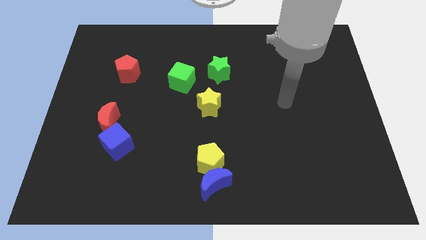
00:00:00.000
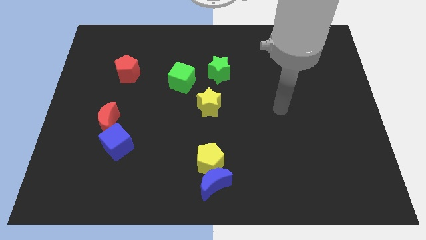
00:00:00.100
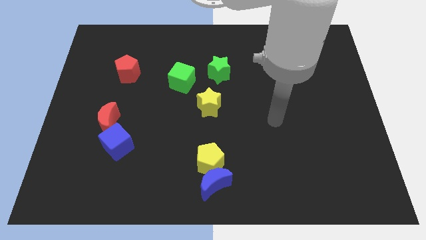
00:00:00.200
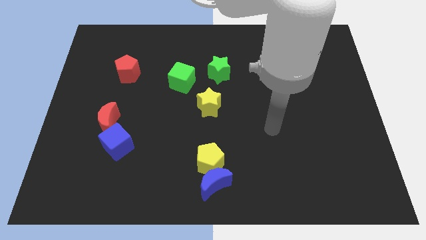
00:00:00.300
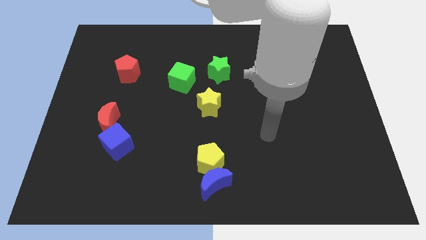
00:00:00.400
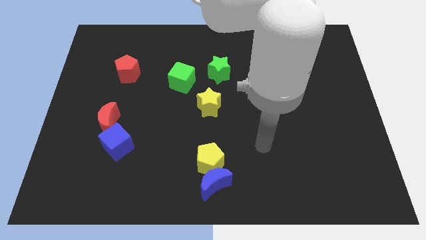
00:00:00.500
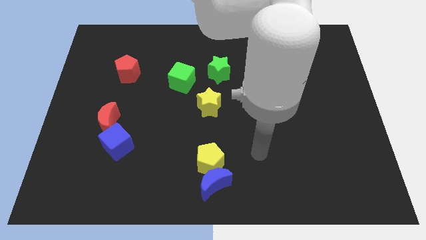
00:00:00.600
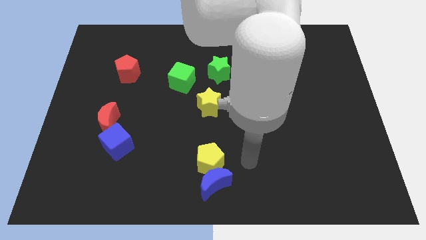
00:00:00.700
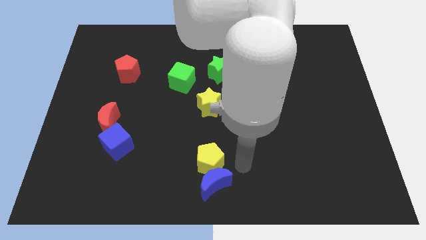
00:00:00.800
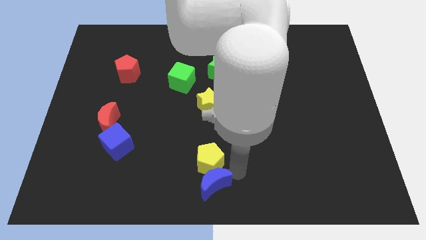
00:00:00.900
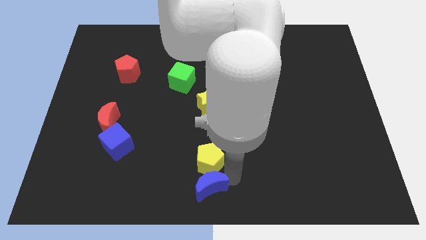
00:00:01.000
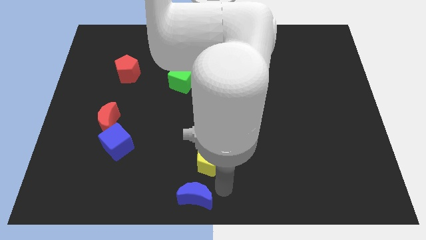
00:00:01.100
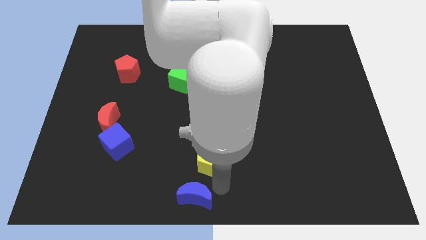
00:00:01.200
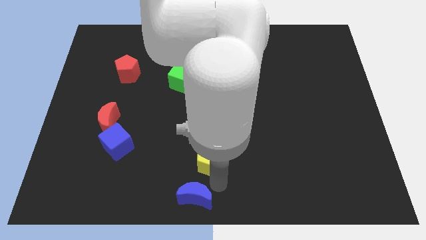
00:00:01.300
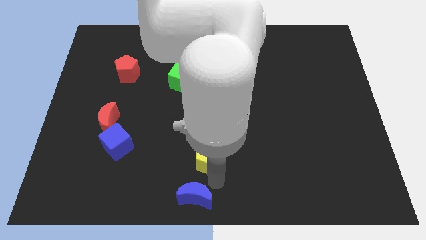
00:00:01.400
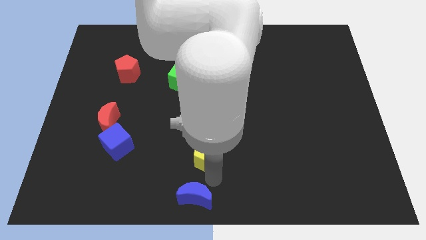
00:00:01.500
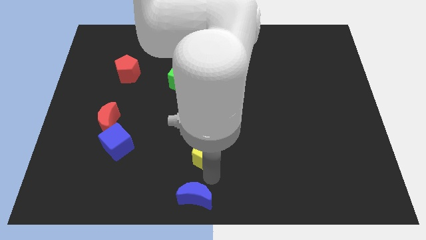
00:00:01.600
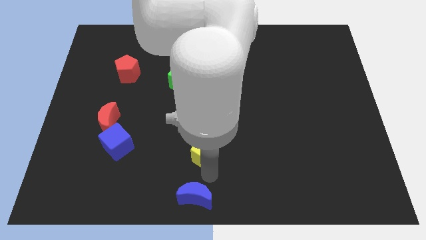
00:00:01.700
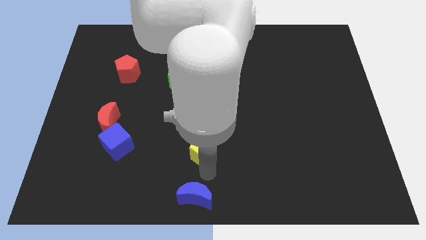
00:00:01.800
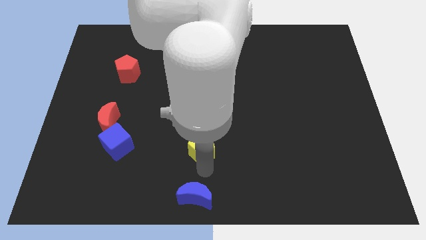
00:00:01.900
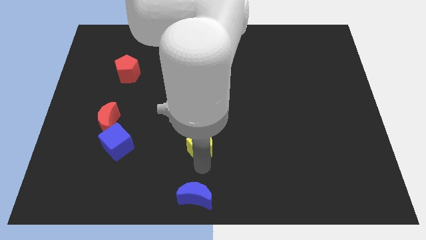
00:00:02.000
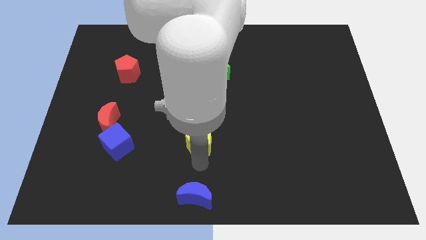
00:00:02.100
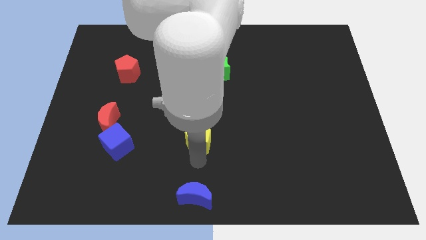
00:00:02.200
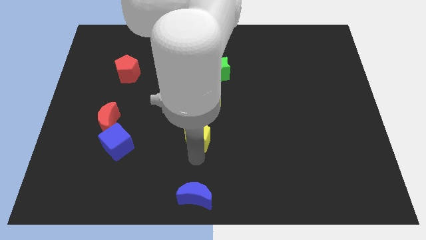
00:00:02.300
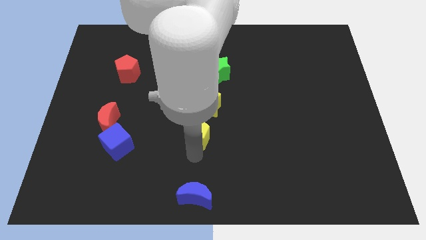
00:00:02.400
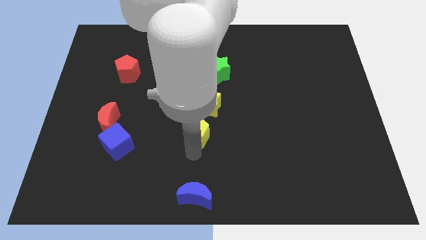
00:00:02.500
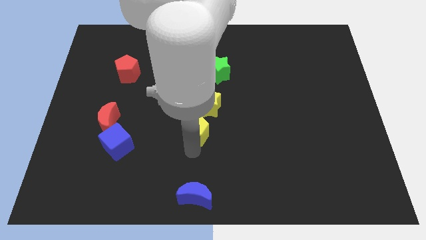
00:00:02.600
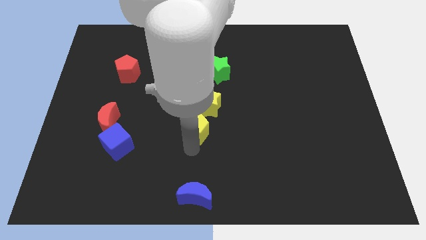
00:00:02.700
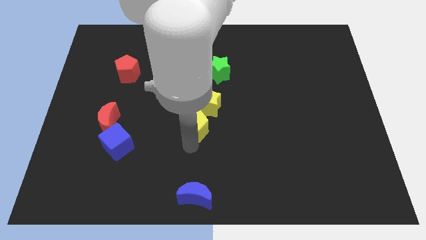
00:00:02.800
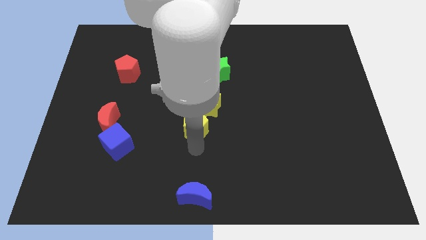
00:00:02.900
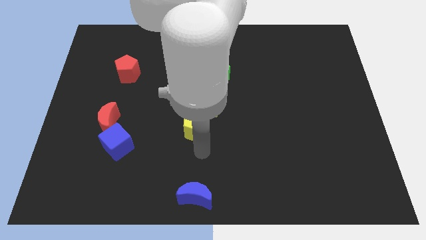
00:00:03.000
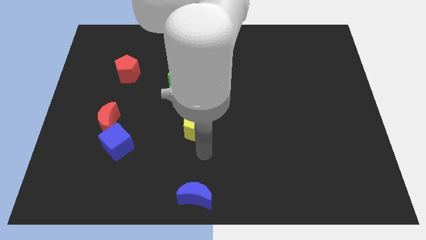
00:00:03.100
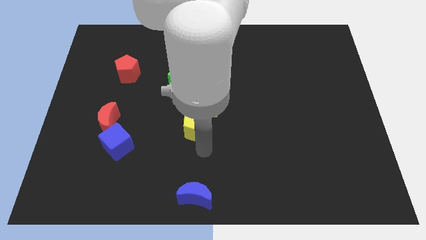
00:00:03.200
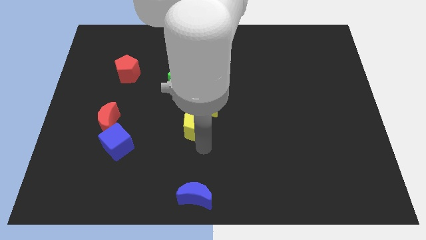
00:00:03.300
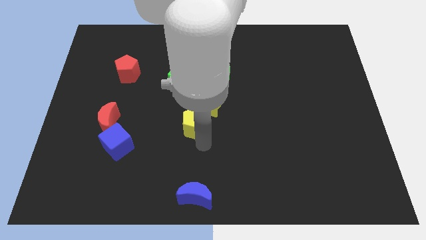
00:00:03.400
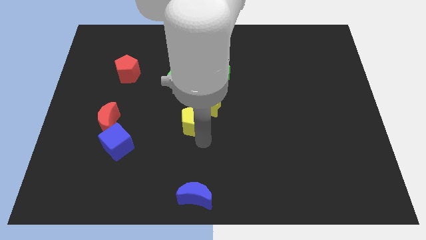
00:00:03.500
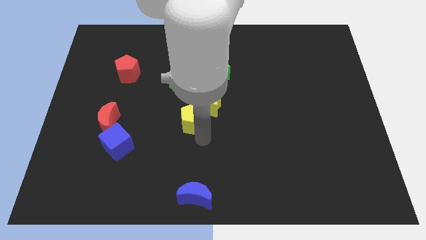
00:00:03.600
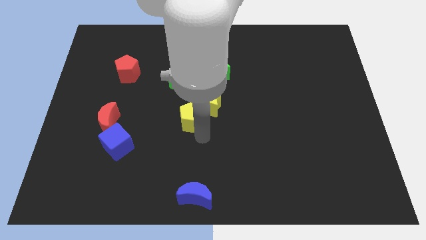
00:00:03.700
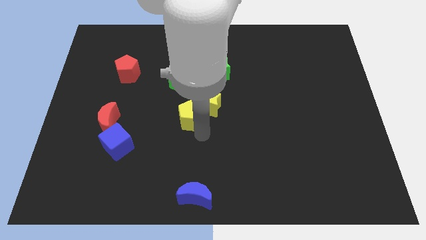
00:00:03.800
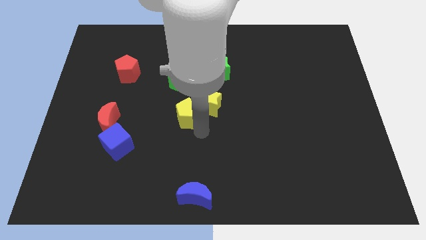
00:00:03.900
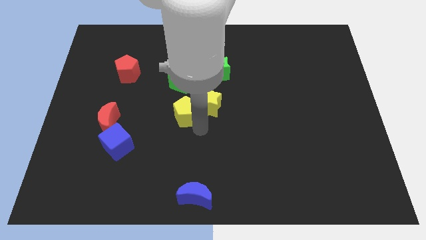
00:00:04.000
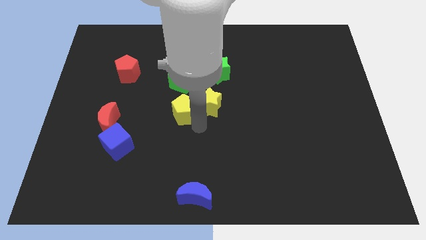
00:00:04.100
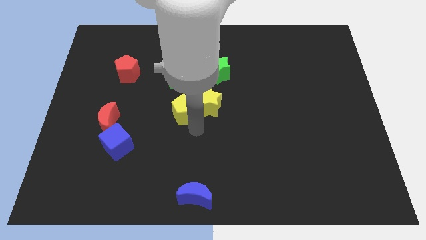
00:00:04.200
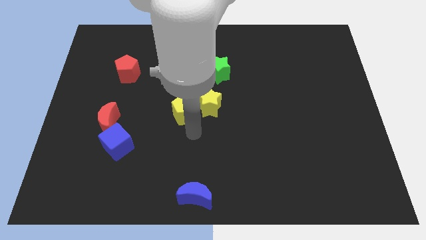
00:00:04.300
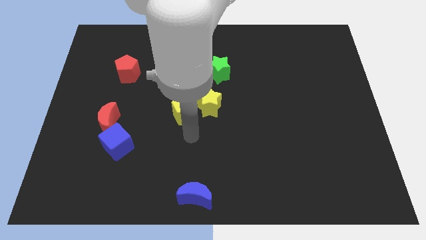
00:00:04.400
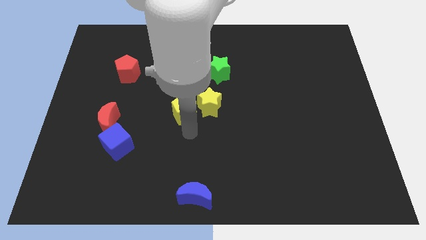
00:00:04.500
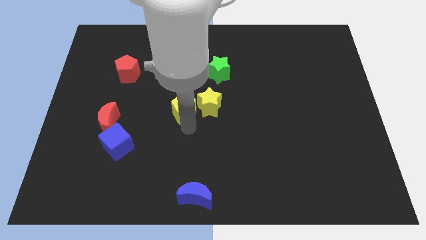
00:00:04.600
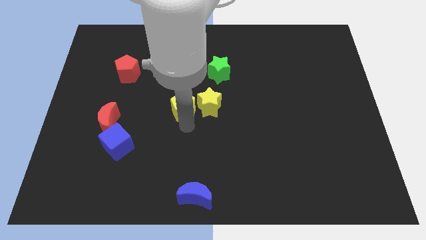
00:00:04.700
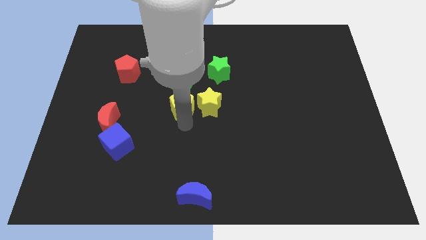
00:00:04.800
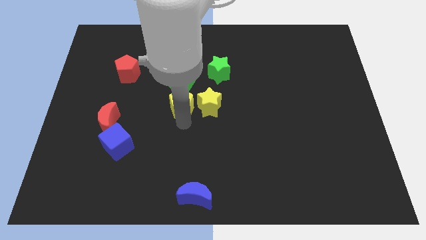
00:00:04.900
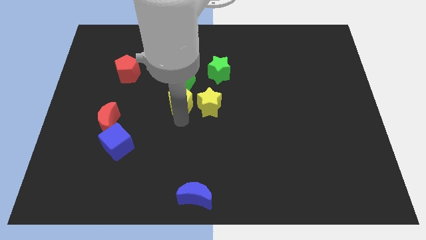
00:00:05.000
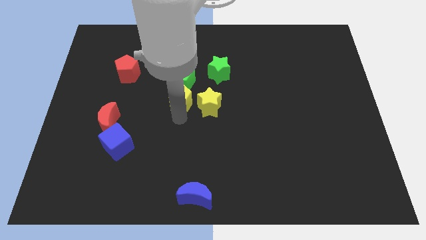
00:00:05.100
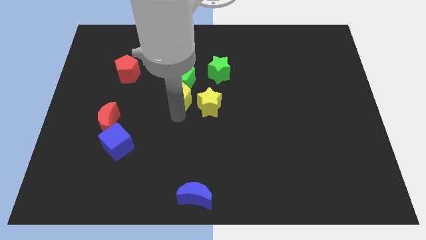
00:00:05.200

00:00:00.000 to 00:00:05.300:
push the yellow pentagon towards the green cube

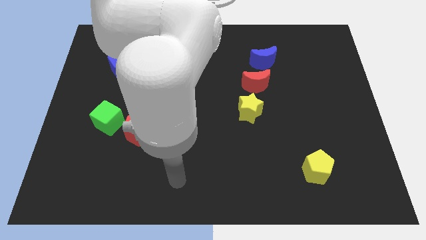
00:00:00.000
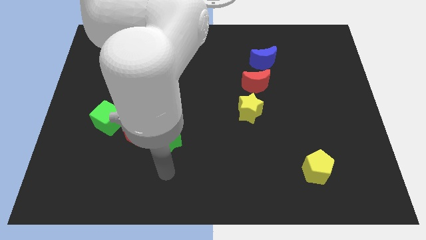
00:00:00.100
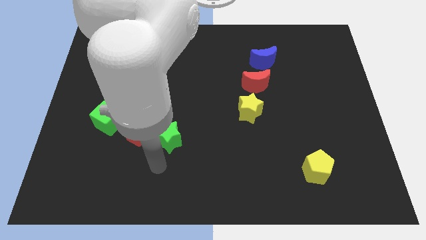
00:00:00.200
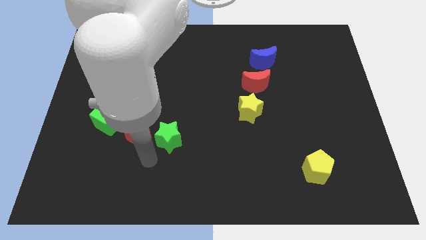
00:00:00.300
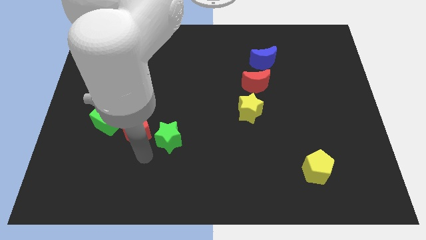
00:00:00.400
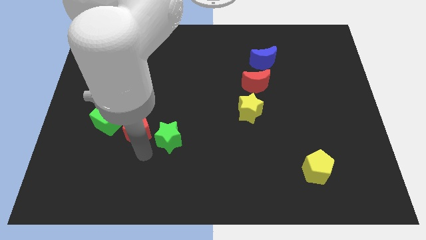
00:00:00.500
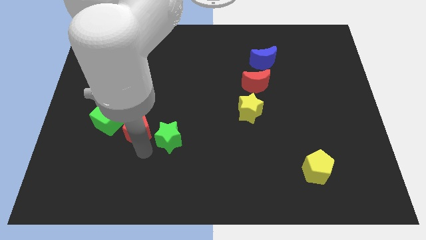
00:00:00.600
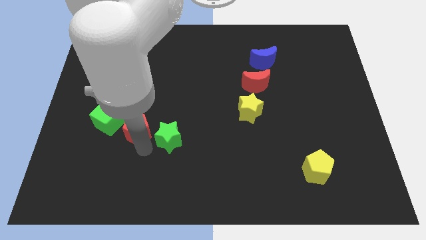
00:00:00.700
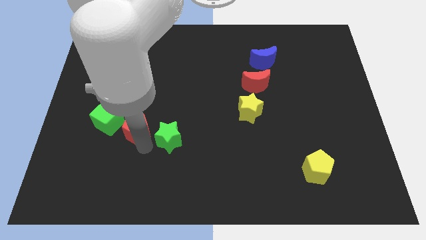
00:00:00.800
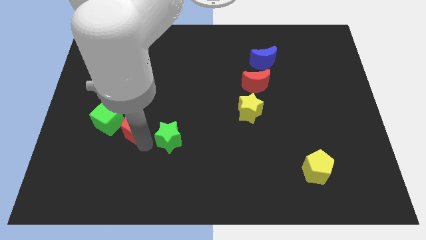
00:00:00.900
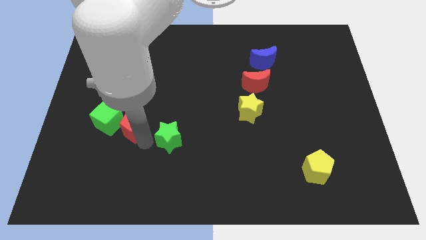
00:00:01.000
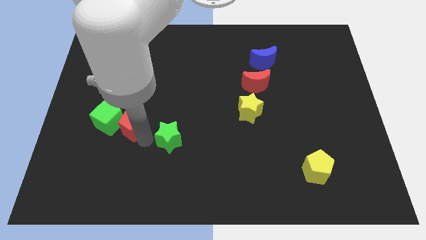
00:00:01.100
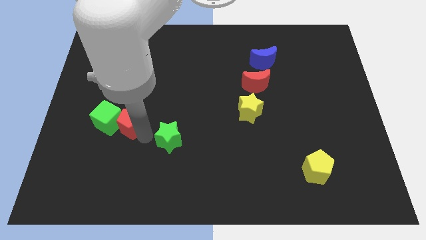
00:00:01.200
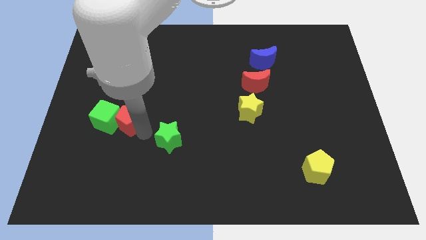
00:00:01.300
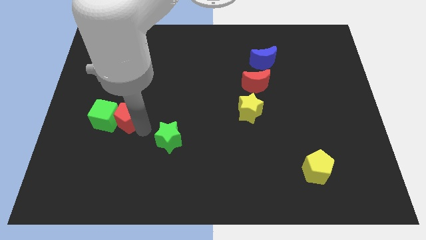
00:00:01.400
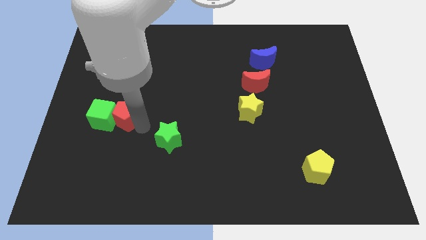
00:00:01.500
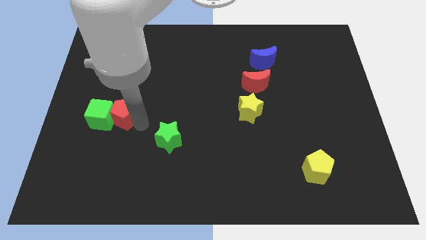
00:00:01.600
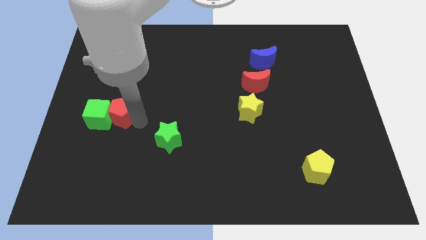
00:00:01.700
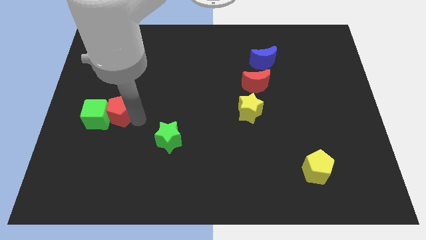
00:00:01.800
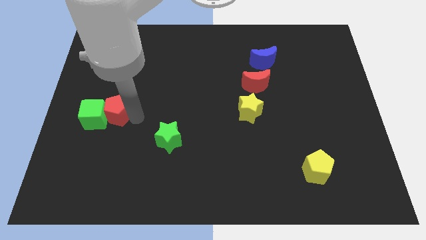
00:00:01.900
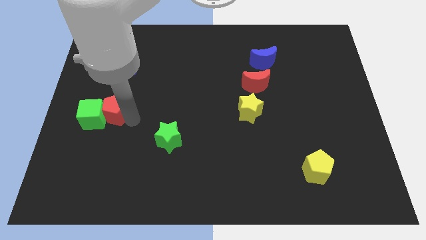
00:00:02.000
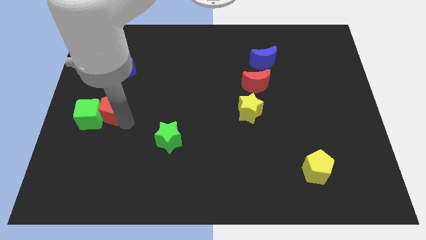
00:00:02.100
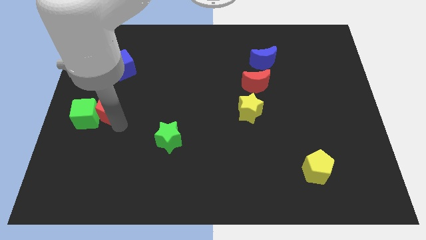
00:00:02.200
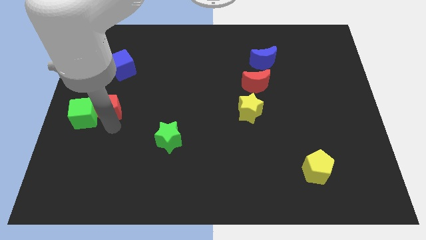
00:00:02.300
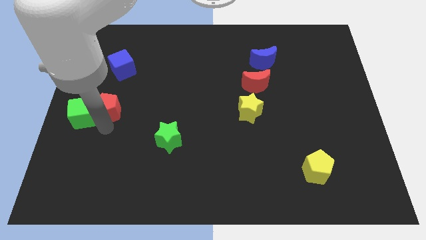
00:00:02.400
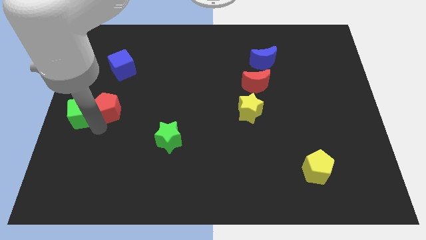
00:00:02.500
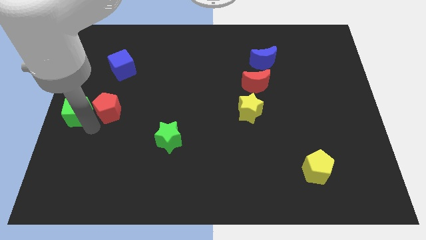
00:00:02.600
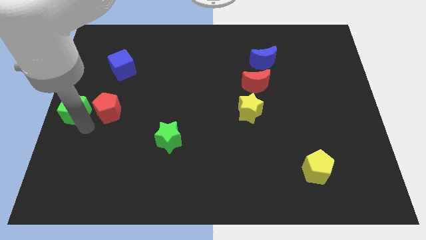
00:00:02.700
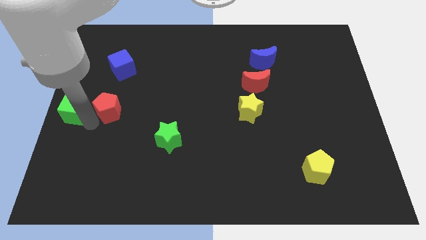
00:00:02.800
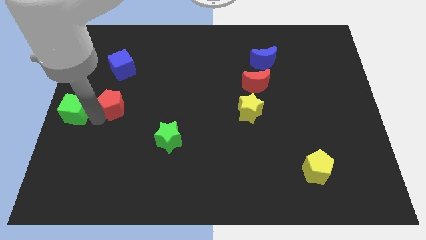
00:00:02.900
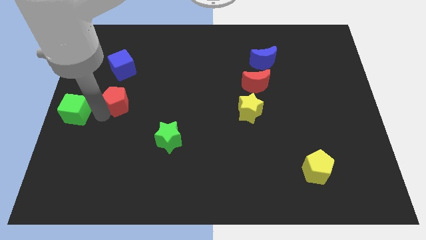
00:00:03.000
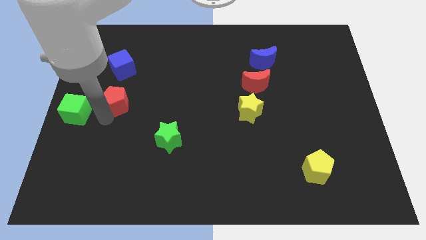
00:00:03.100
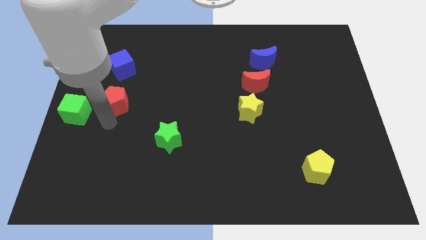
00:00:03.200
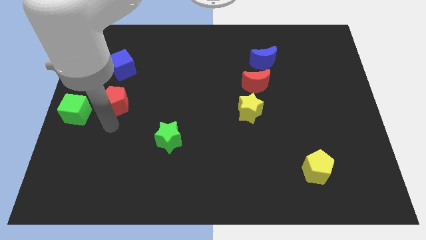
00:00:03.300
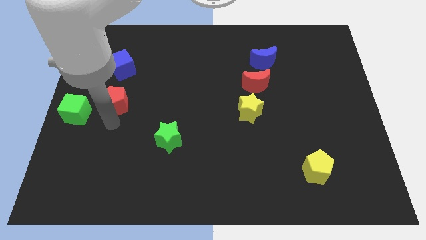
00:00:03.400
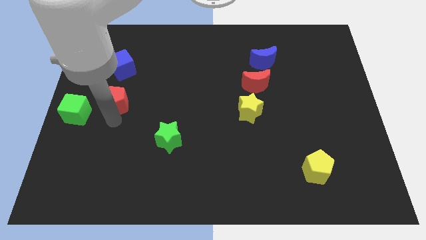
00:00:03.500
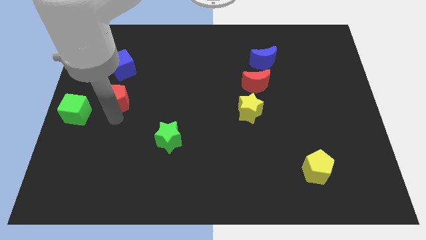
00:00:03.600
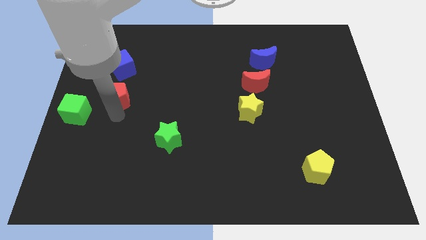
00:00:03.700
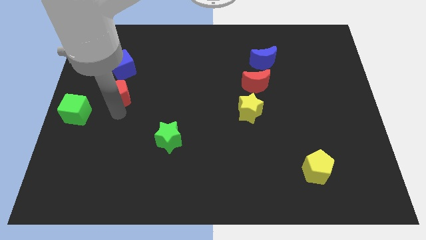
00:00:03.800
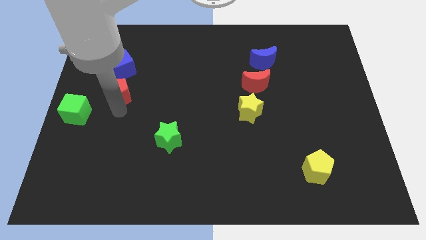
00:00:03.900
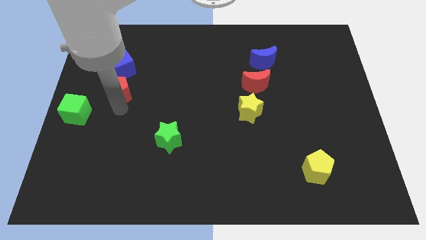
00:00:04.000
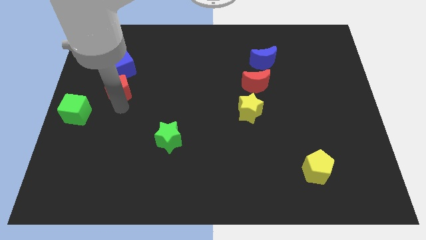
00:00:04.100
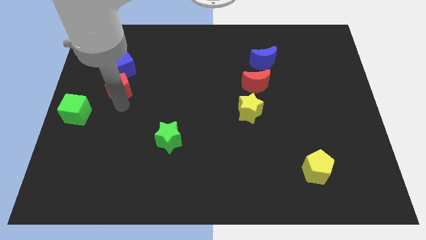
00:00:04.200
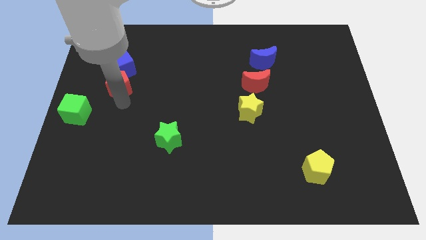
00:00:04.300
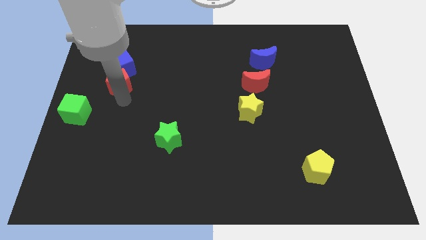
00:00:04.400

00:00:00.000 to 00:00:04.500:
move the red pentagon next to the blue cube
